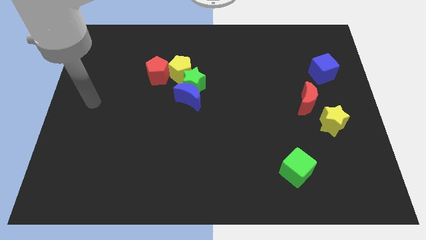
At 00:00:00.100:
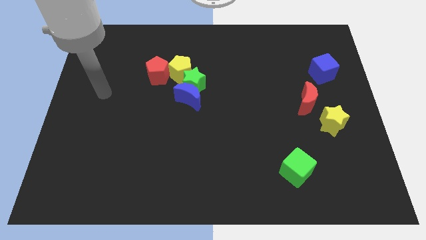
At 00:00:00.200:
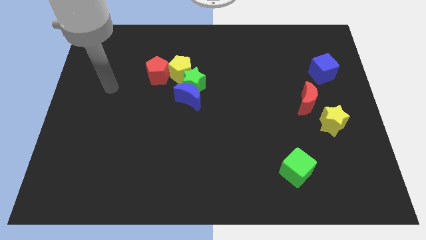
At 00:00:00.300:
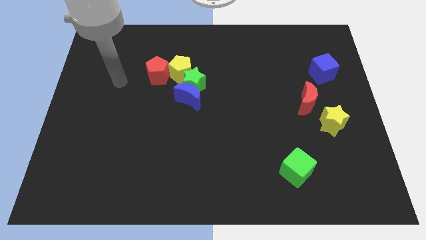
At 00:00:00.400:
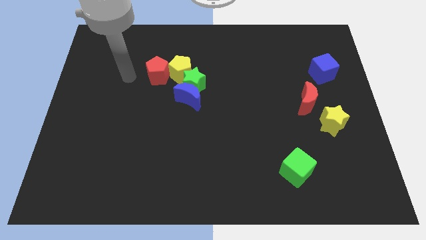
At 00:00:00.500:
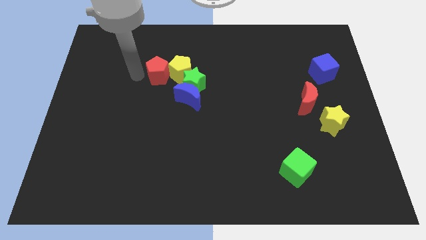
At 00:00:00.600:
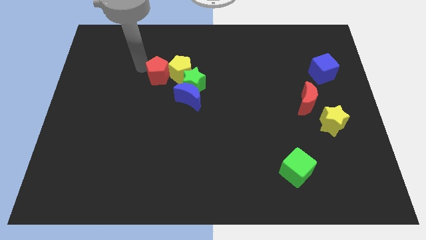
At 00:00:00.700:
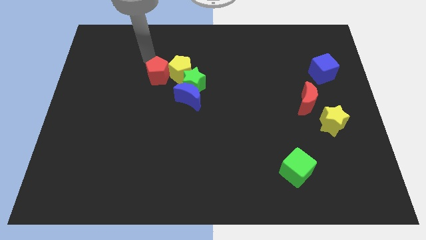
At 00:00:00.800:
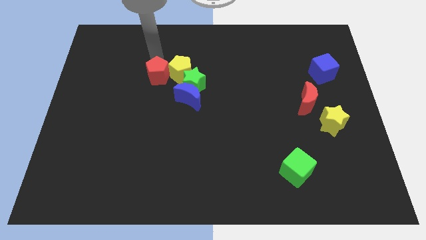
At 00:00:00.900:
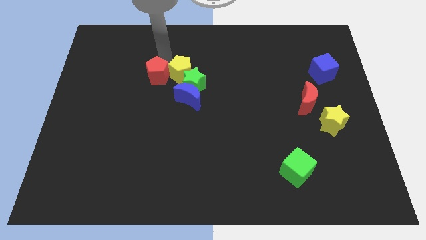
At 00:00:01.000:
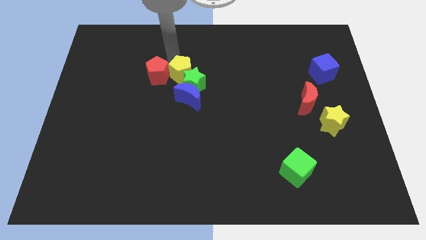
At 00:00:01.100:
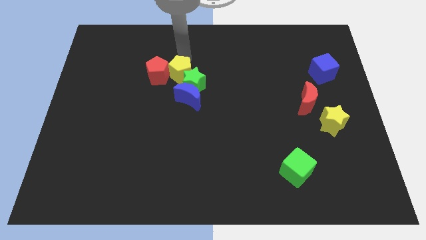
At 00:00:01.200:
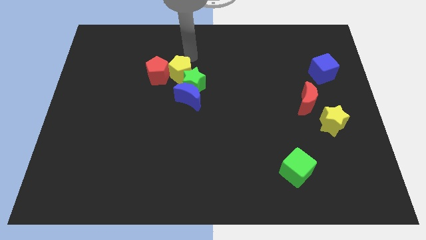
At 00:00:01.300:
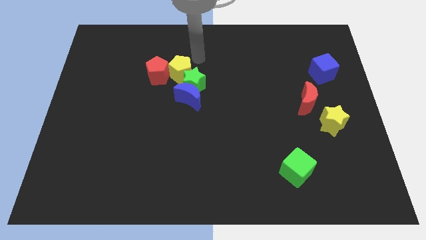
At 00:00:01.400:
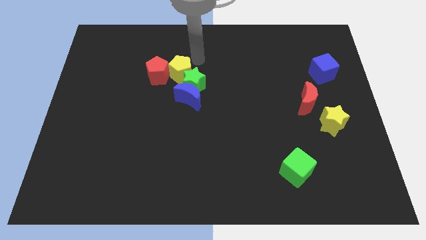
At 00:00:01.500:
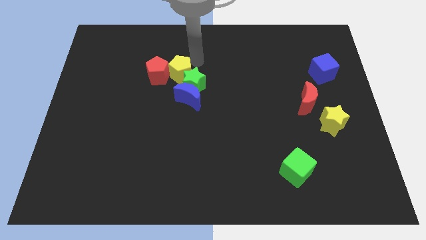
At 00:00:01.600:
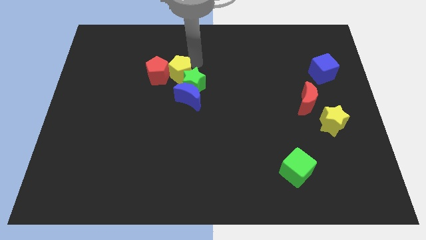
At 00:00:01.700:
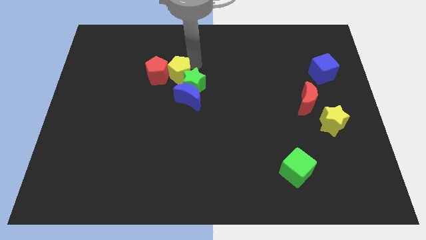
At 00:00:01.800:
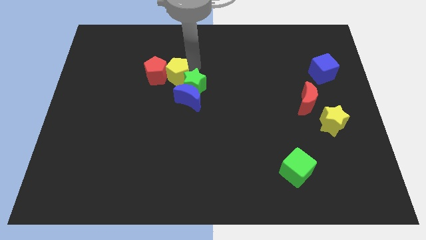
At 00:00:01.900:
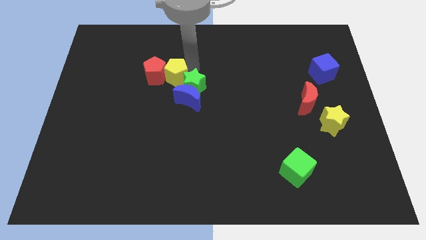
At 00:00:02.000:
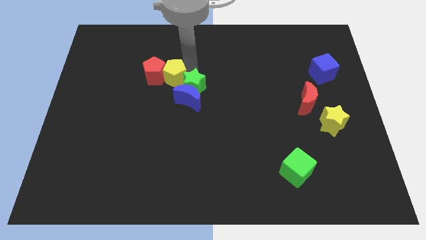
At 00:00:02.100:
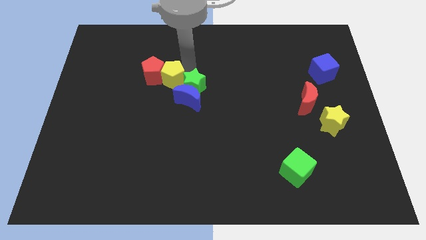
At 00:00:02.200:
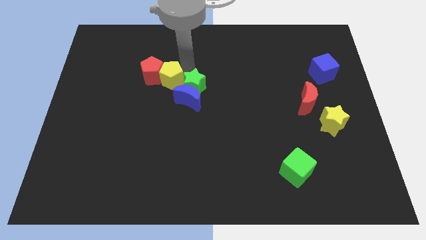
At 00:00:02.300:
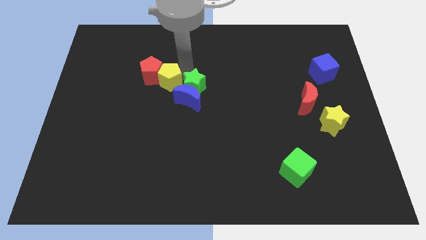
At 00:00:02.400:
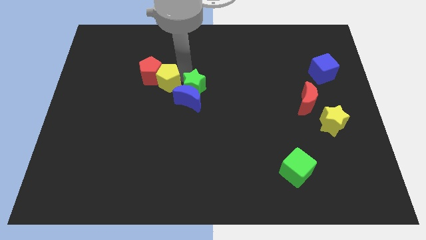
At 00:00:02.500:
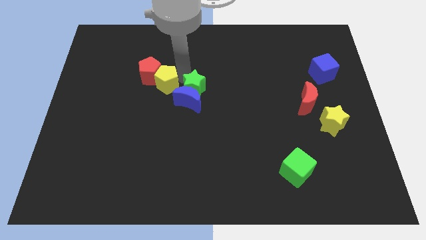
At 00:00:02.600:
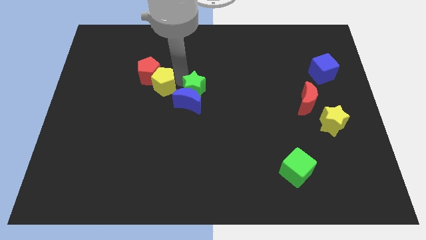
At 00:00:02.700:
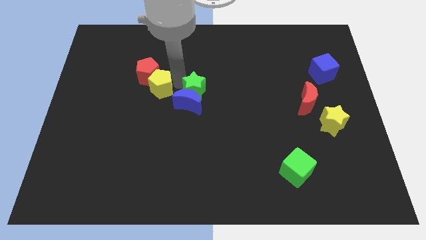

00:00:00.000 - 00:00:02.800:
slightly slide the yellow pentagon down and then left

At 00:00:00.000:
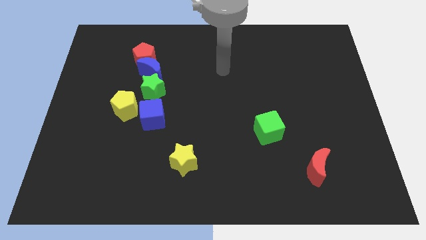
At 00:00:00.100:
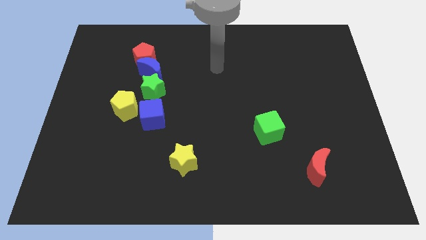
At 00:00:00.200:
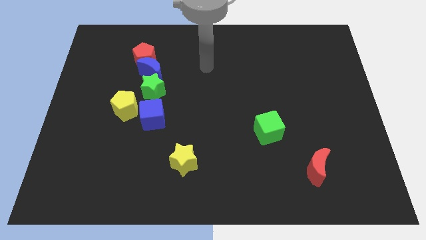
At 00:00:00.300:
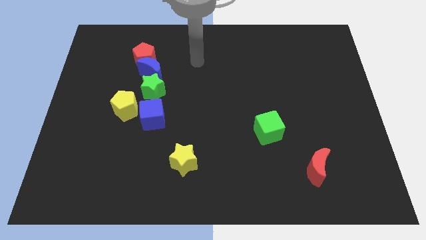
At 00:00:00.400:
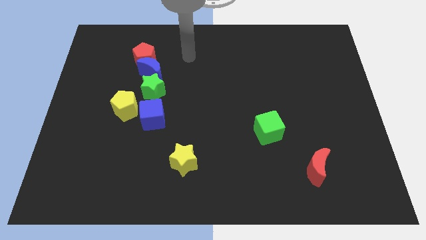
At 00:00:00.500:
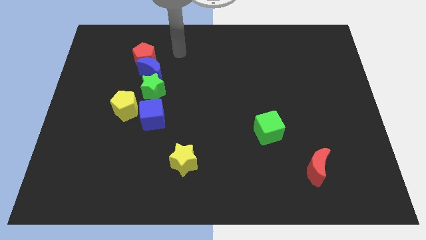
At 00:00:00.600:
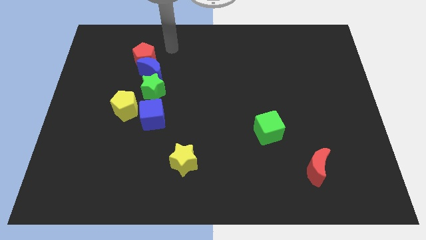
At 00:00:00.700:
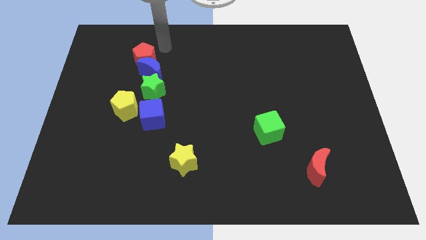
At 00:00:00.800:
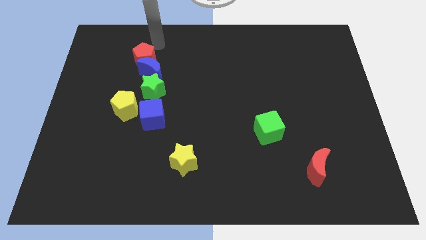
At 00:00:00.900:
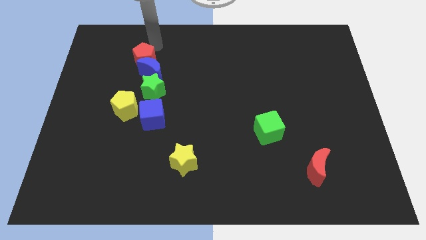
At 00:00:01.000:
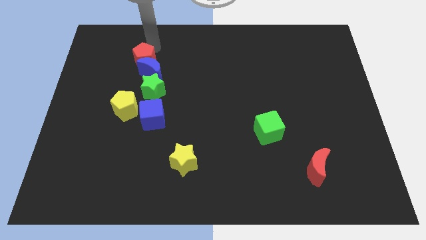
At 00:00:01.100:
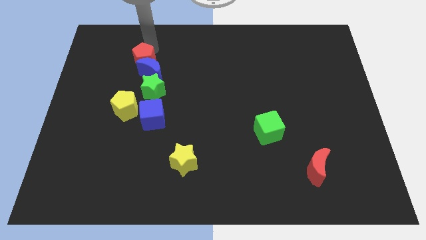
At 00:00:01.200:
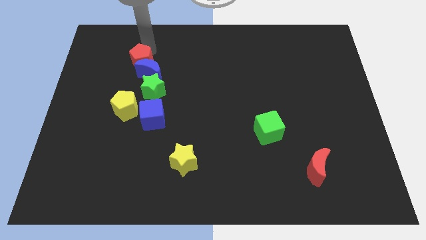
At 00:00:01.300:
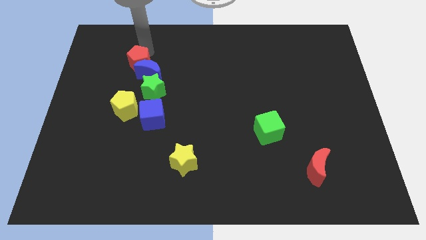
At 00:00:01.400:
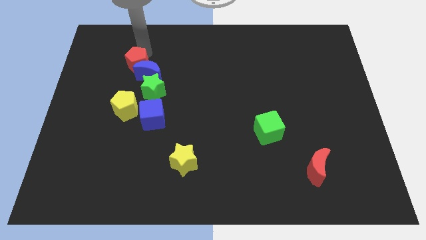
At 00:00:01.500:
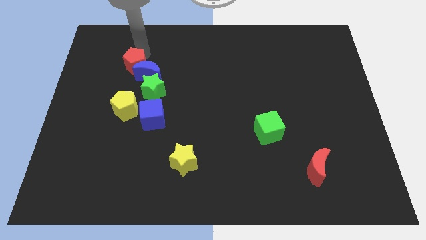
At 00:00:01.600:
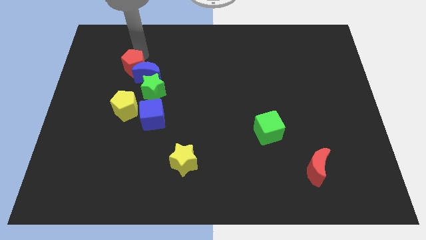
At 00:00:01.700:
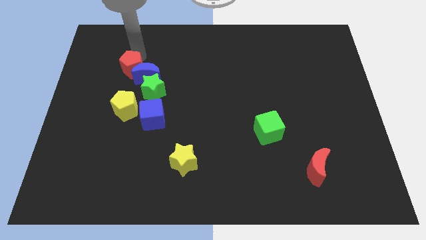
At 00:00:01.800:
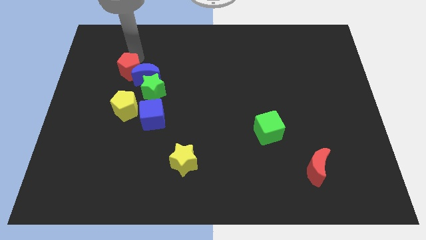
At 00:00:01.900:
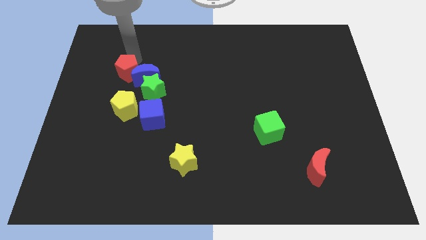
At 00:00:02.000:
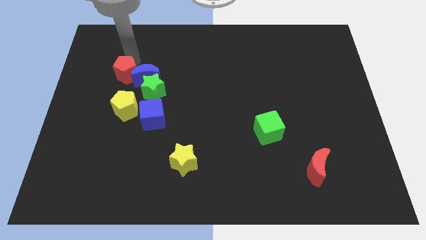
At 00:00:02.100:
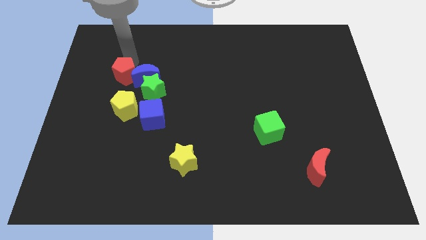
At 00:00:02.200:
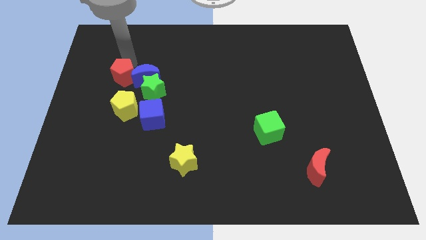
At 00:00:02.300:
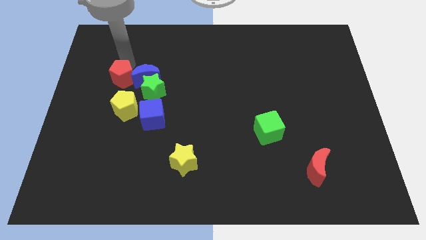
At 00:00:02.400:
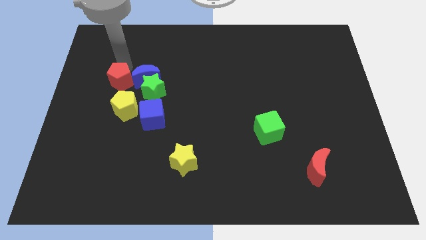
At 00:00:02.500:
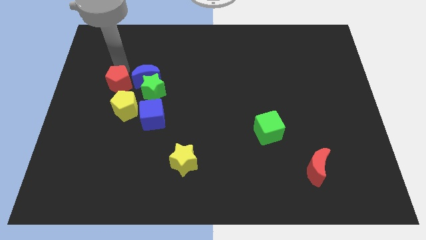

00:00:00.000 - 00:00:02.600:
slide the red pentagon downwards a little

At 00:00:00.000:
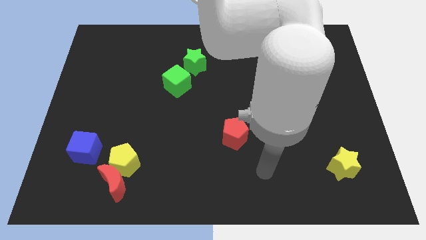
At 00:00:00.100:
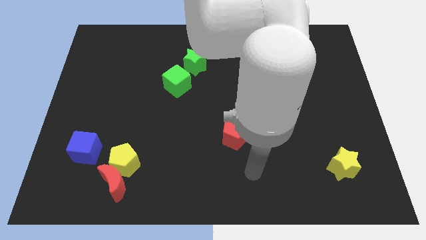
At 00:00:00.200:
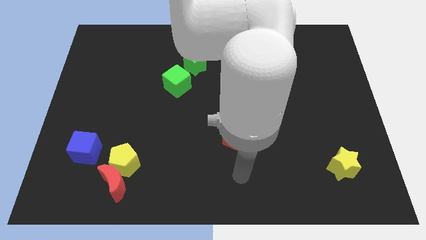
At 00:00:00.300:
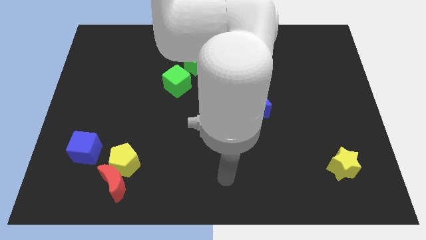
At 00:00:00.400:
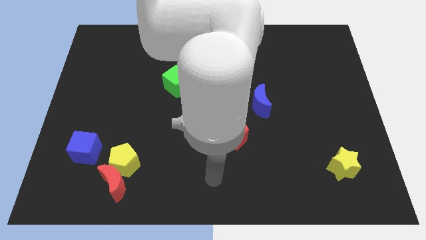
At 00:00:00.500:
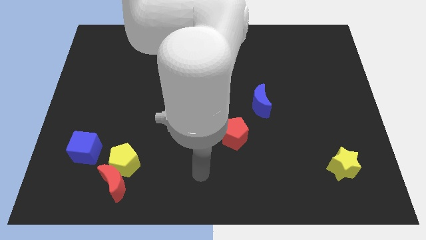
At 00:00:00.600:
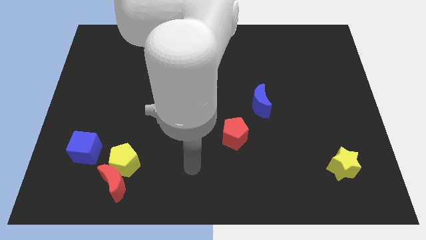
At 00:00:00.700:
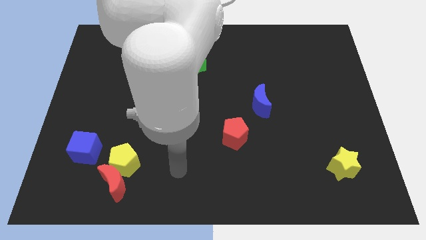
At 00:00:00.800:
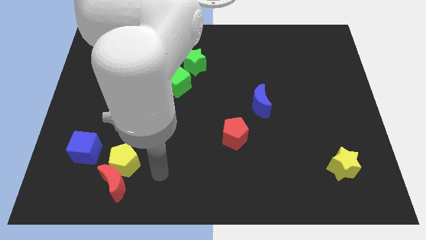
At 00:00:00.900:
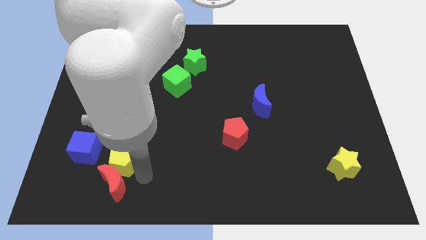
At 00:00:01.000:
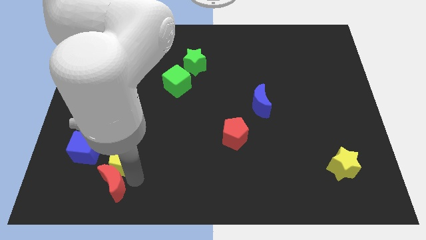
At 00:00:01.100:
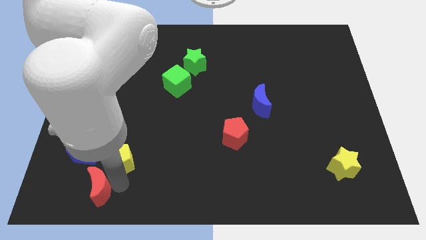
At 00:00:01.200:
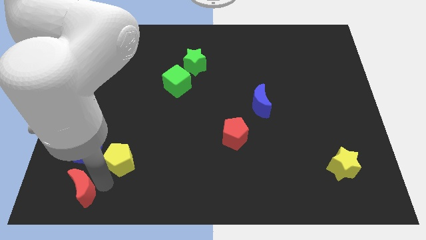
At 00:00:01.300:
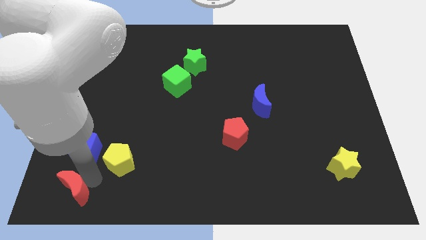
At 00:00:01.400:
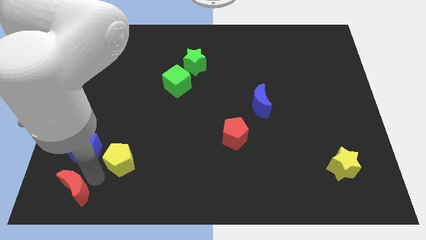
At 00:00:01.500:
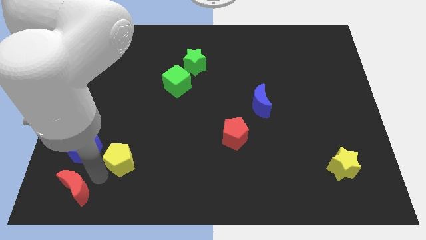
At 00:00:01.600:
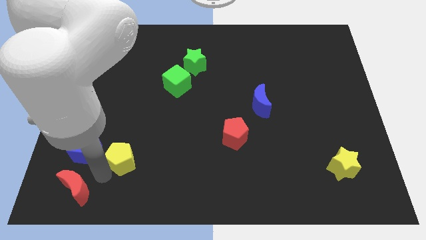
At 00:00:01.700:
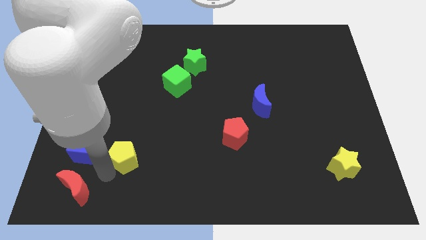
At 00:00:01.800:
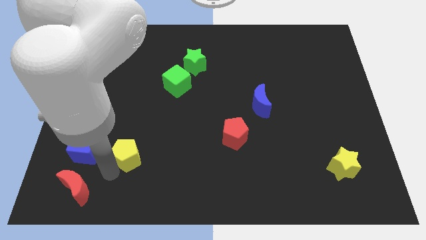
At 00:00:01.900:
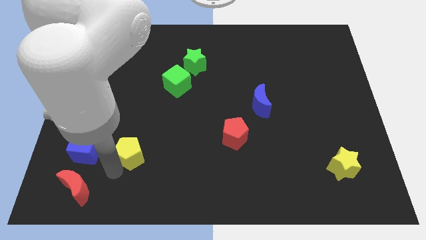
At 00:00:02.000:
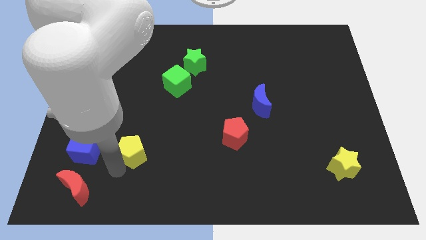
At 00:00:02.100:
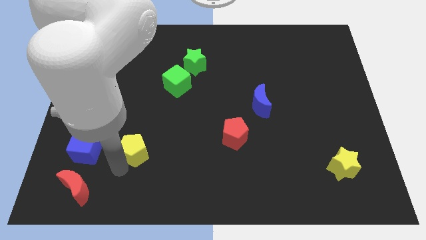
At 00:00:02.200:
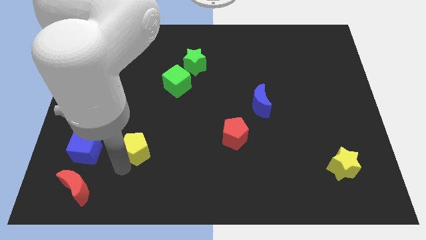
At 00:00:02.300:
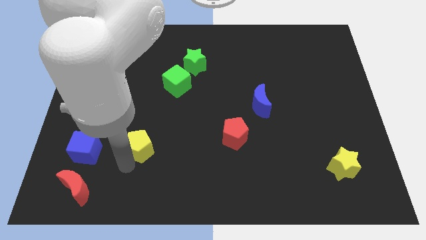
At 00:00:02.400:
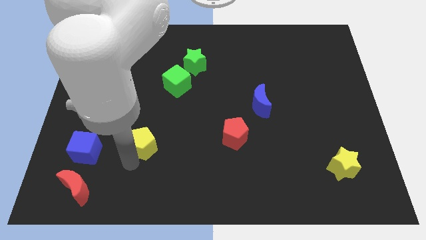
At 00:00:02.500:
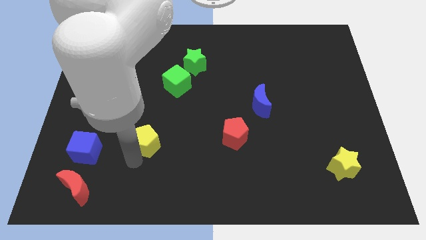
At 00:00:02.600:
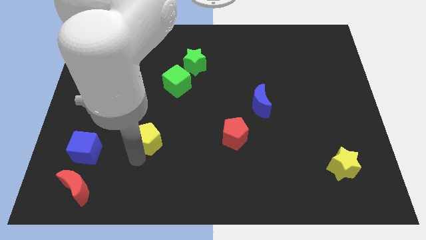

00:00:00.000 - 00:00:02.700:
move the yellow pentagon up and to the right a little
